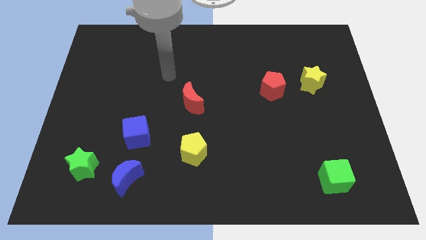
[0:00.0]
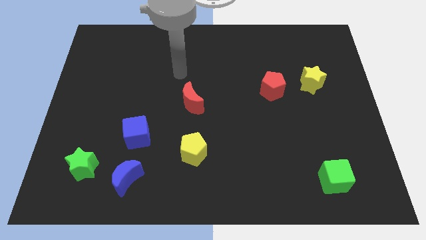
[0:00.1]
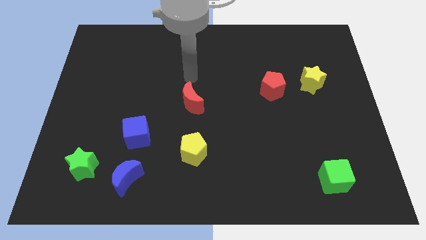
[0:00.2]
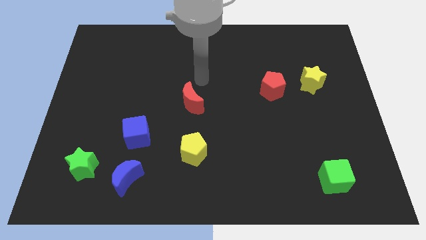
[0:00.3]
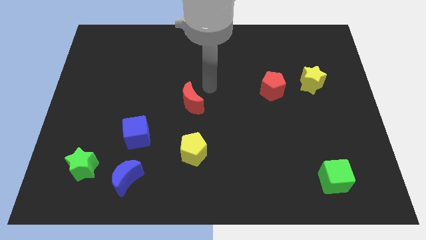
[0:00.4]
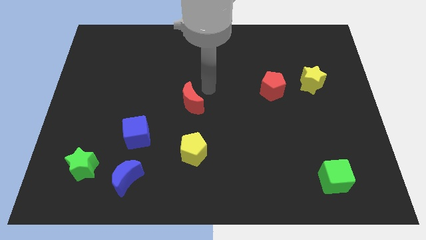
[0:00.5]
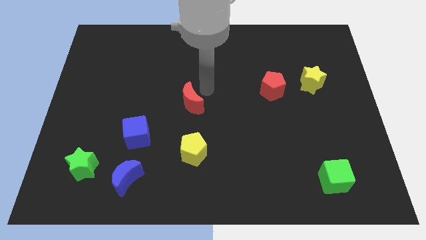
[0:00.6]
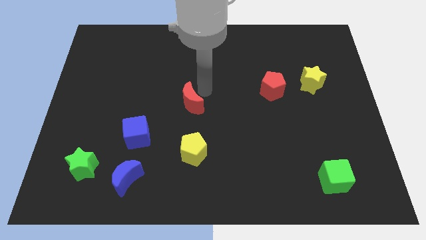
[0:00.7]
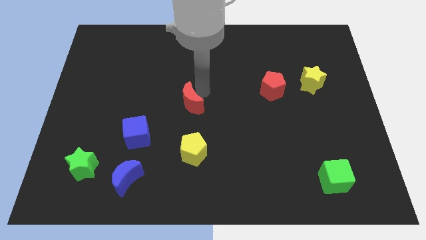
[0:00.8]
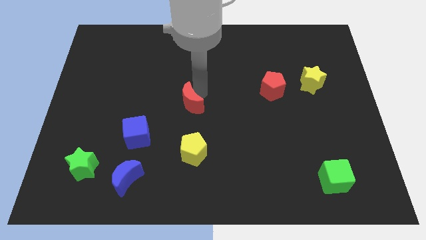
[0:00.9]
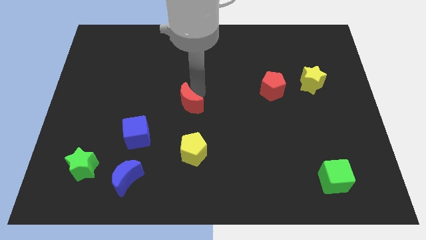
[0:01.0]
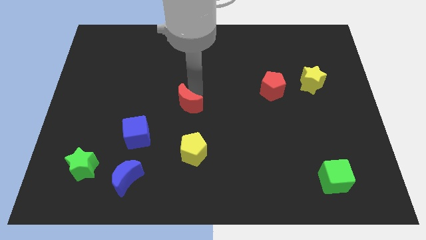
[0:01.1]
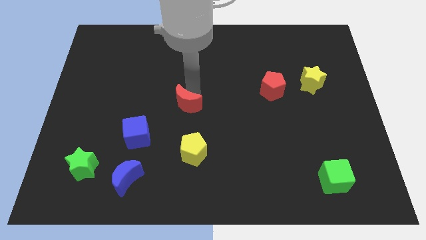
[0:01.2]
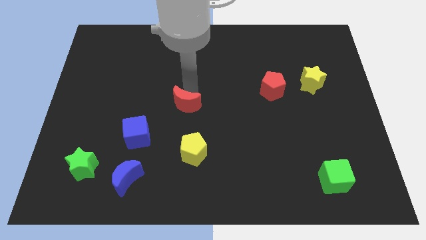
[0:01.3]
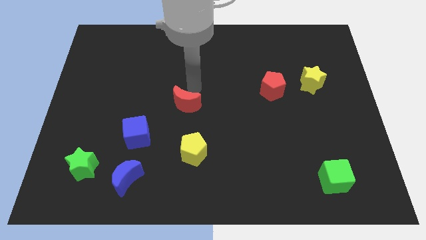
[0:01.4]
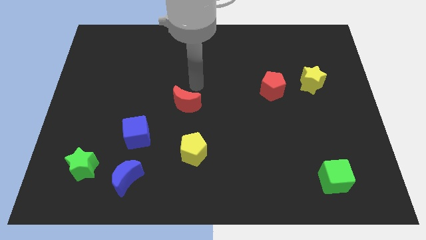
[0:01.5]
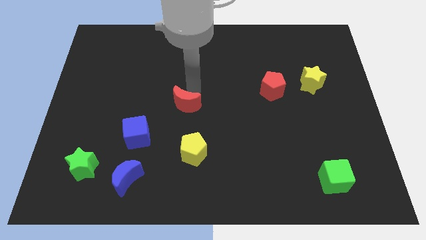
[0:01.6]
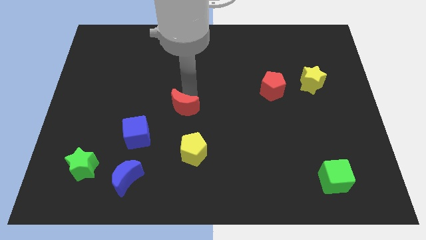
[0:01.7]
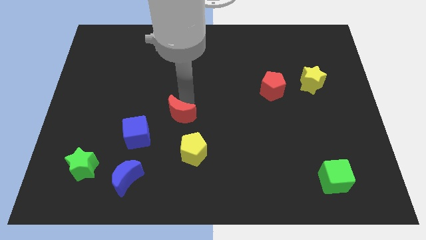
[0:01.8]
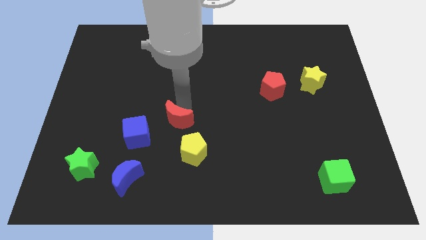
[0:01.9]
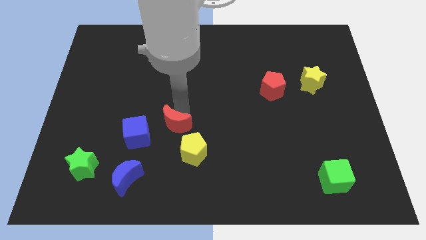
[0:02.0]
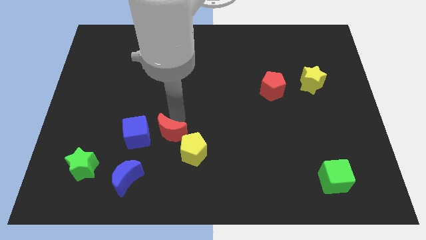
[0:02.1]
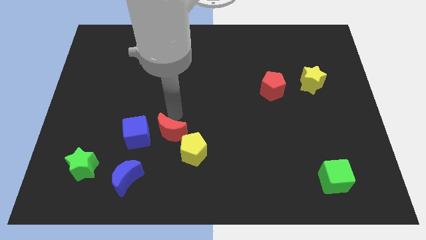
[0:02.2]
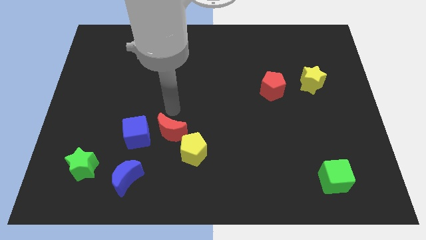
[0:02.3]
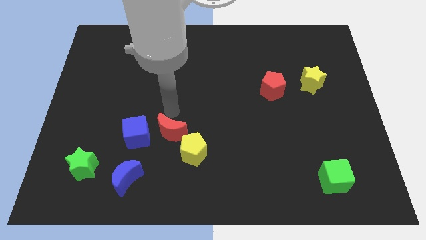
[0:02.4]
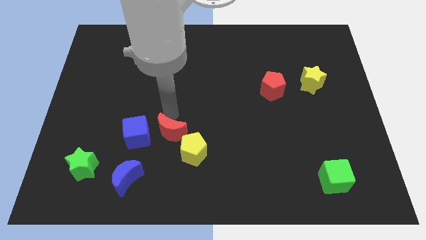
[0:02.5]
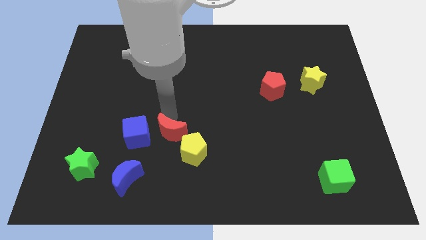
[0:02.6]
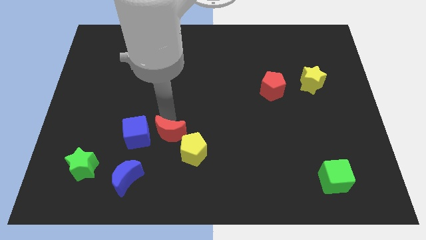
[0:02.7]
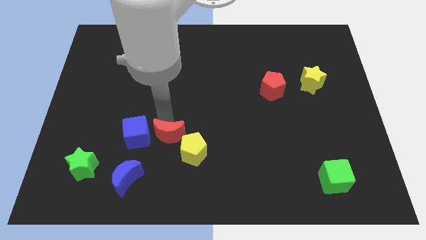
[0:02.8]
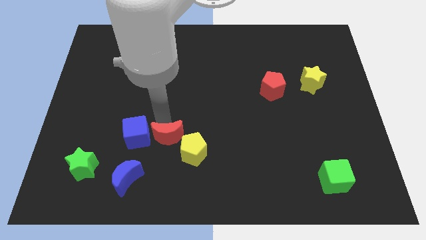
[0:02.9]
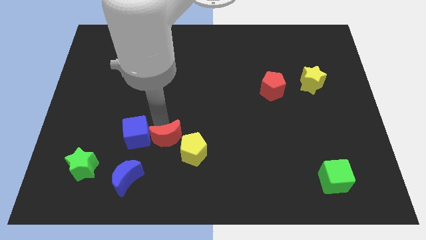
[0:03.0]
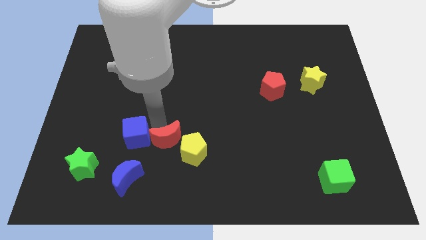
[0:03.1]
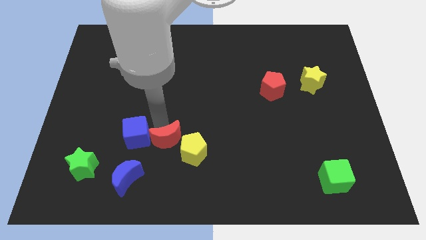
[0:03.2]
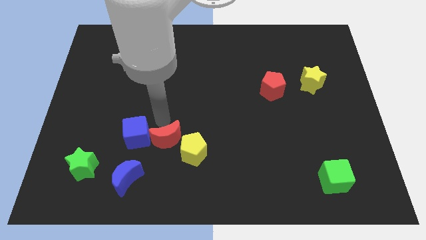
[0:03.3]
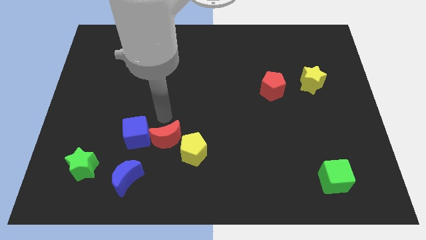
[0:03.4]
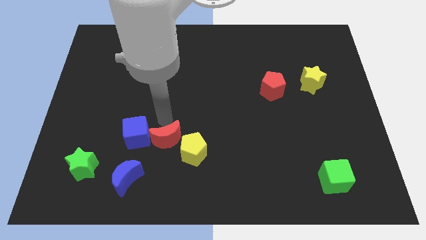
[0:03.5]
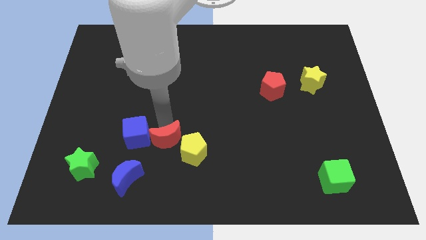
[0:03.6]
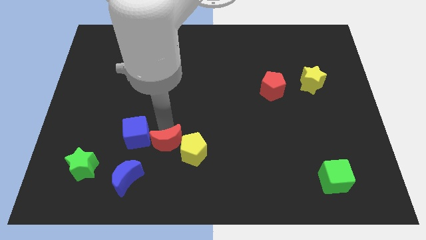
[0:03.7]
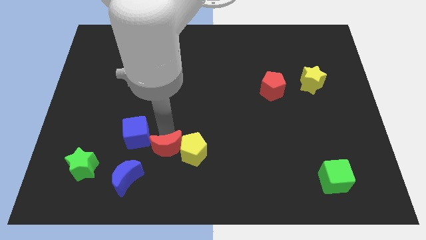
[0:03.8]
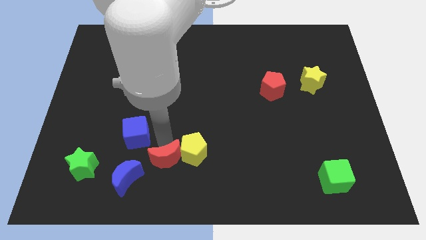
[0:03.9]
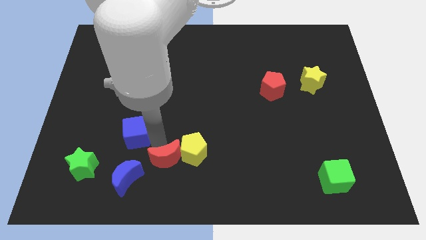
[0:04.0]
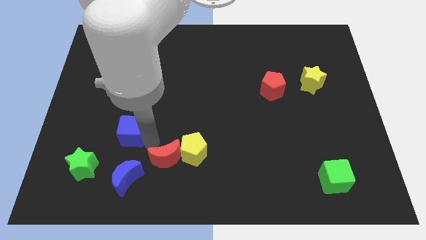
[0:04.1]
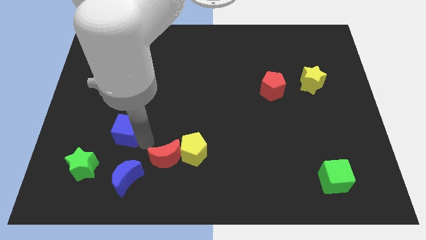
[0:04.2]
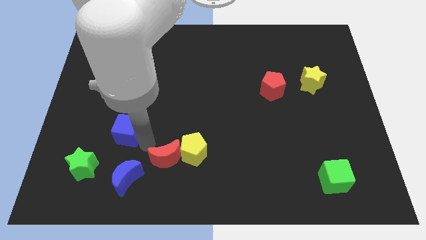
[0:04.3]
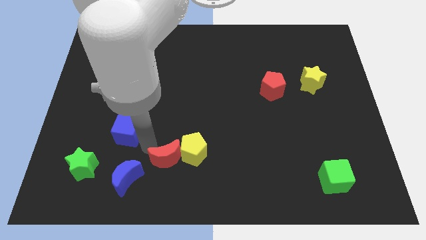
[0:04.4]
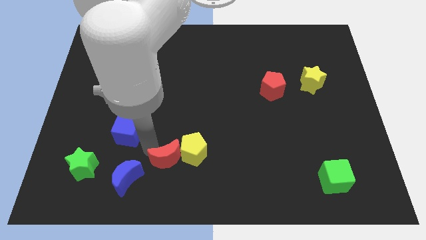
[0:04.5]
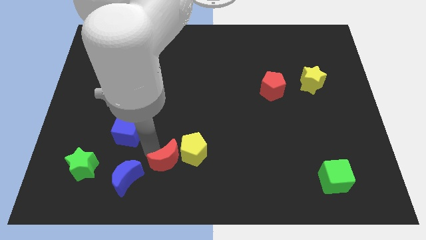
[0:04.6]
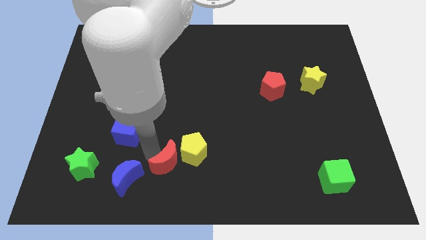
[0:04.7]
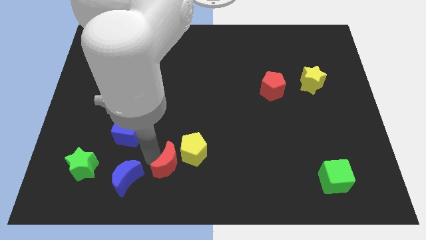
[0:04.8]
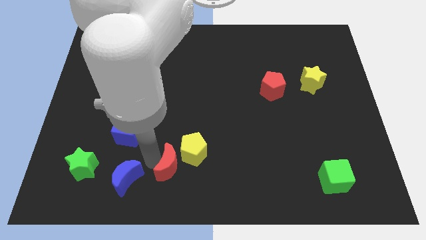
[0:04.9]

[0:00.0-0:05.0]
move the red moon to the bottom

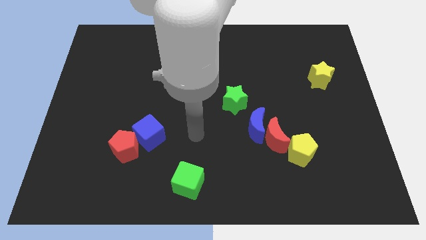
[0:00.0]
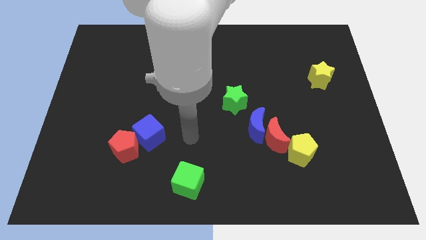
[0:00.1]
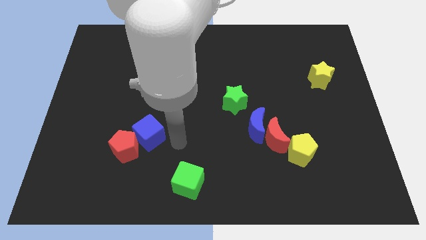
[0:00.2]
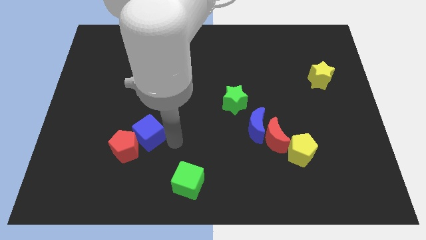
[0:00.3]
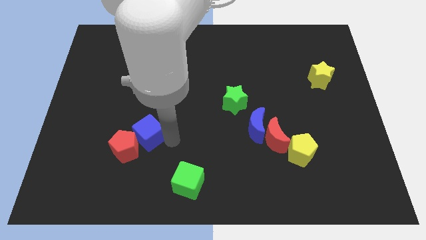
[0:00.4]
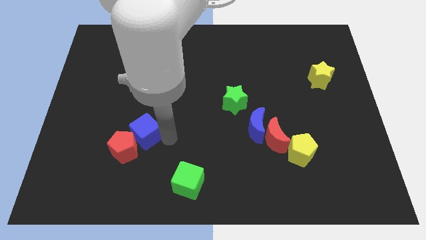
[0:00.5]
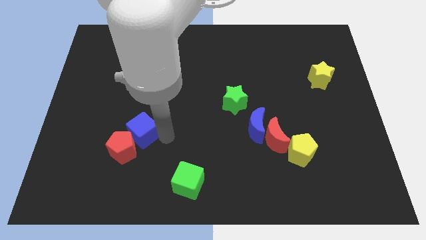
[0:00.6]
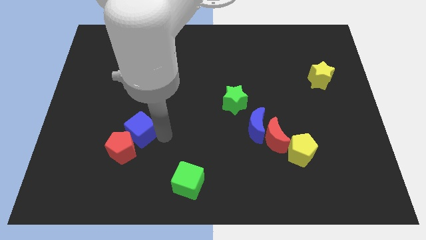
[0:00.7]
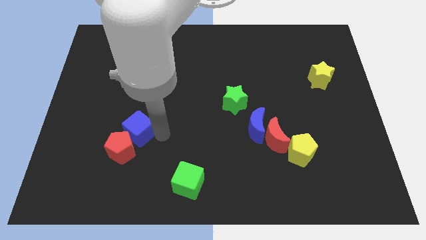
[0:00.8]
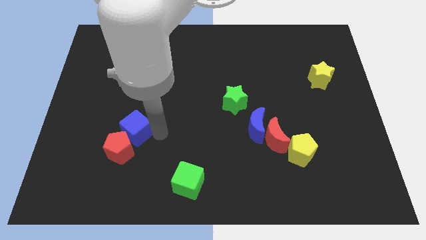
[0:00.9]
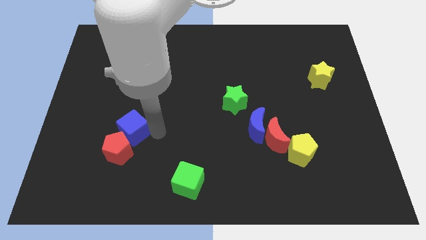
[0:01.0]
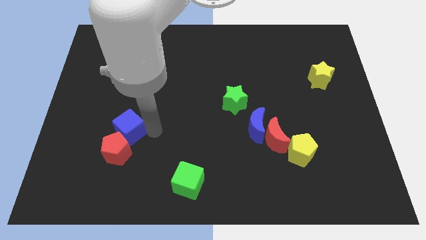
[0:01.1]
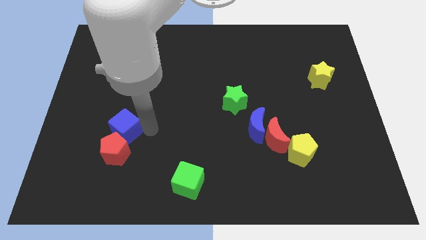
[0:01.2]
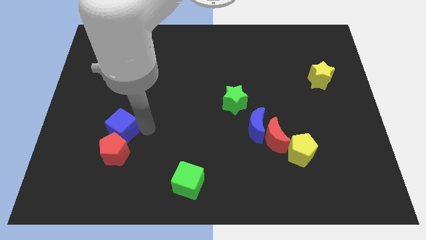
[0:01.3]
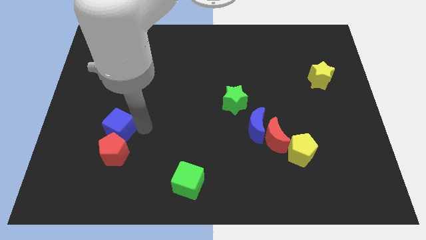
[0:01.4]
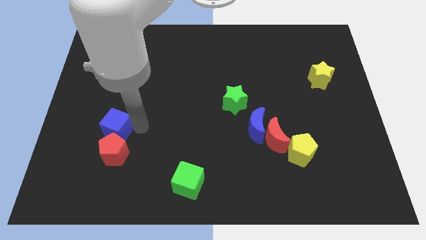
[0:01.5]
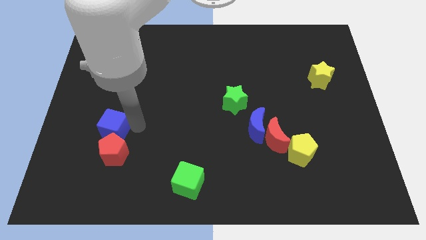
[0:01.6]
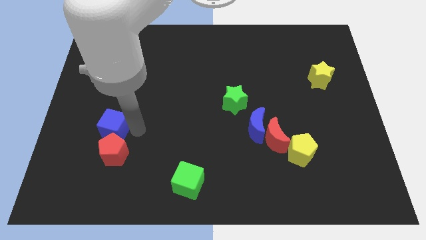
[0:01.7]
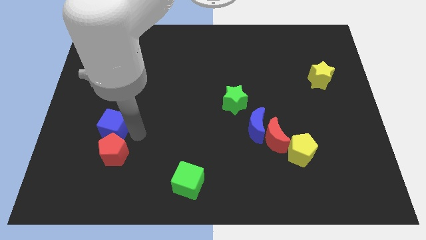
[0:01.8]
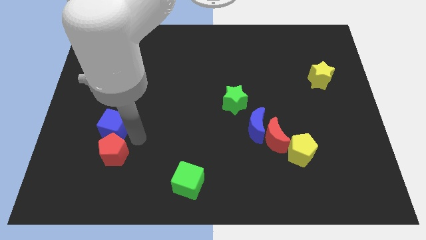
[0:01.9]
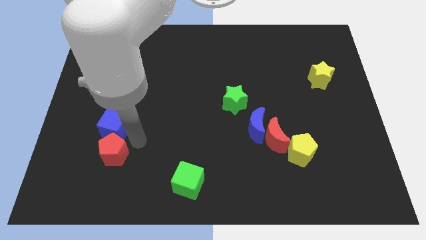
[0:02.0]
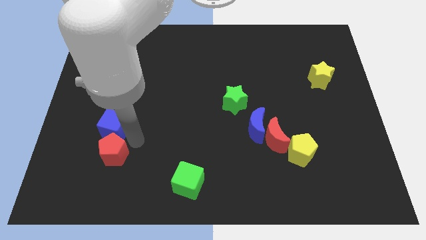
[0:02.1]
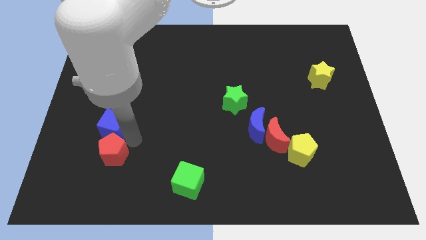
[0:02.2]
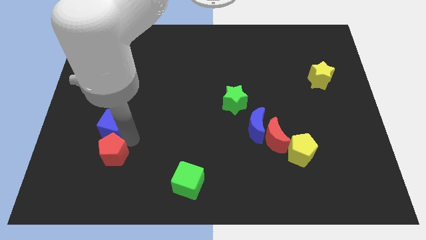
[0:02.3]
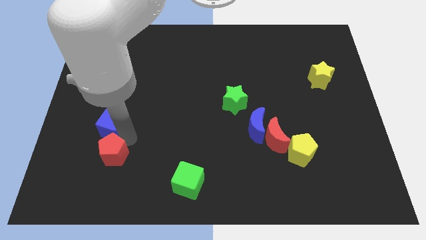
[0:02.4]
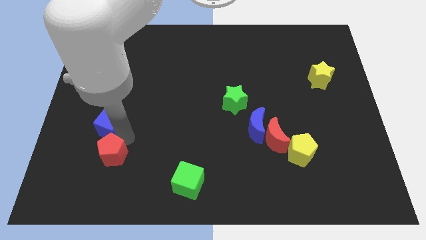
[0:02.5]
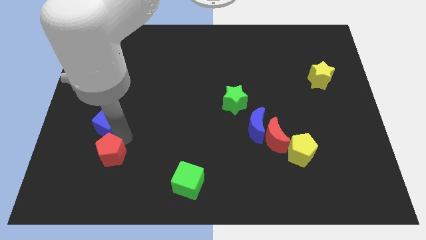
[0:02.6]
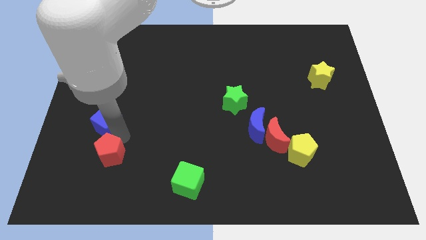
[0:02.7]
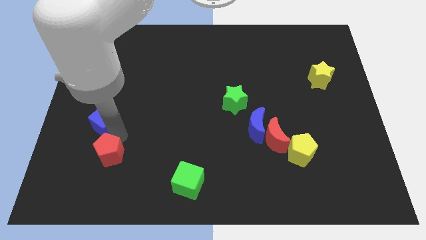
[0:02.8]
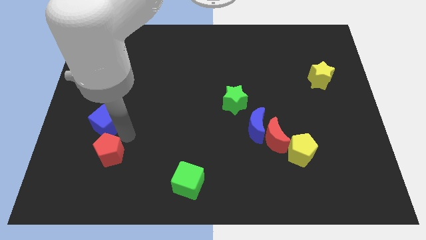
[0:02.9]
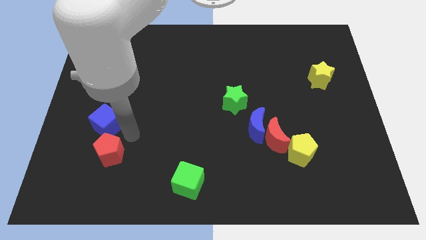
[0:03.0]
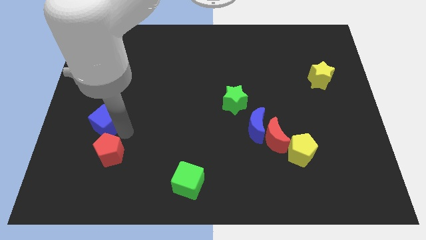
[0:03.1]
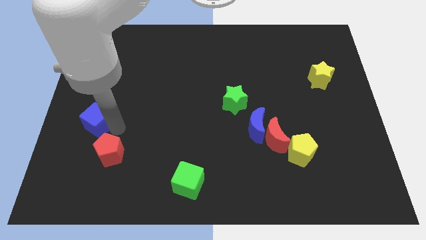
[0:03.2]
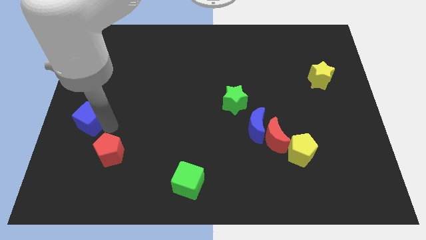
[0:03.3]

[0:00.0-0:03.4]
move the blue cube to the center left
